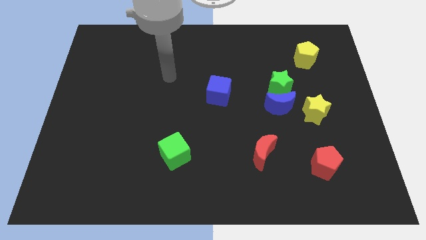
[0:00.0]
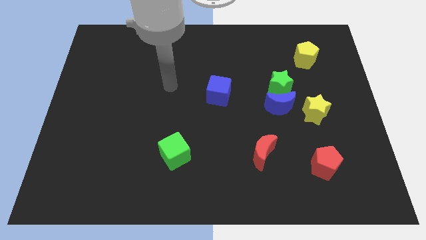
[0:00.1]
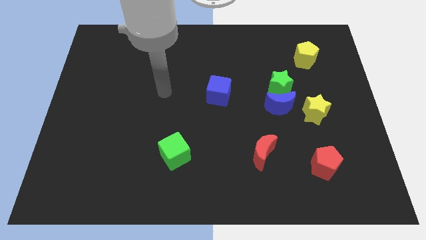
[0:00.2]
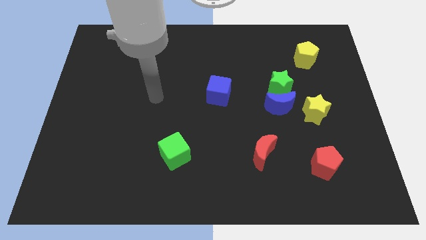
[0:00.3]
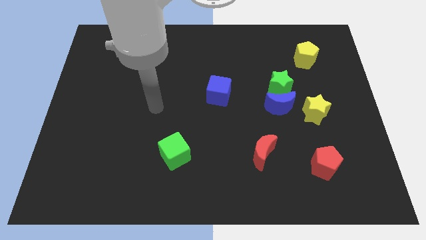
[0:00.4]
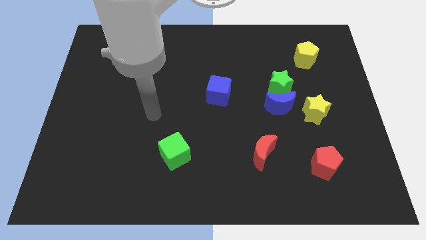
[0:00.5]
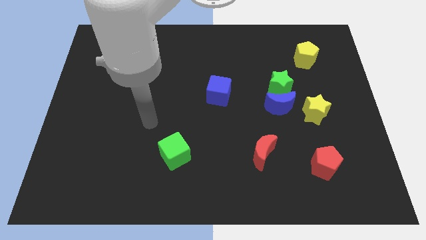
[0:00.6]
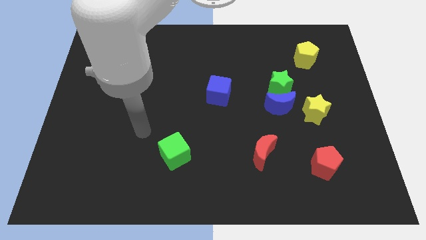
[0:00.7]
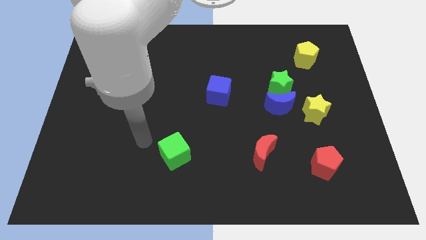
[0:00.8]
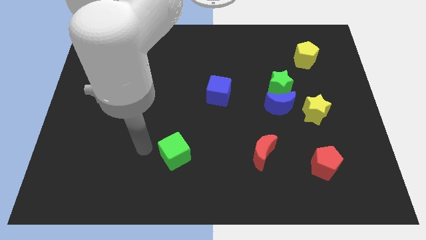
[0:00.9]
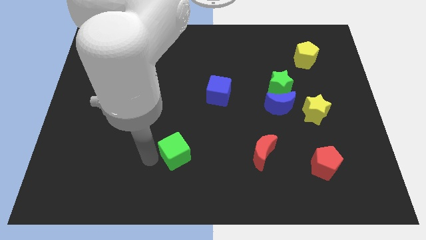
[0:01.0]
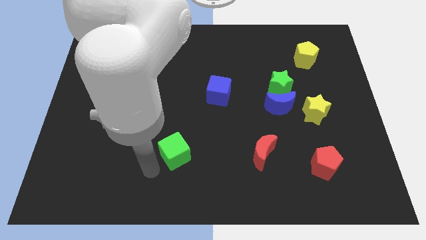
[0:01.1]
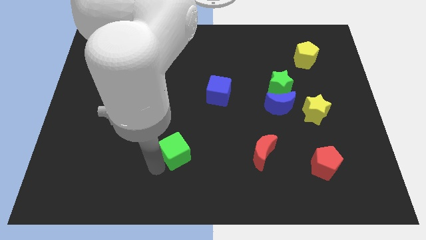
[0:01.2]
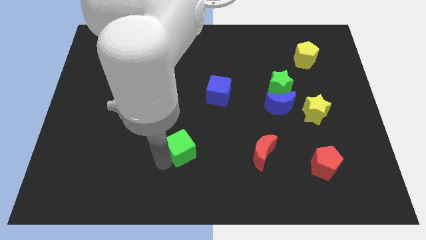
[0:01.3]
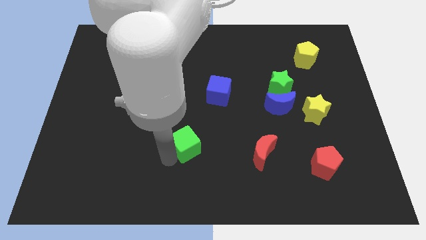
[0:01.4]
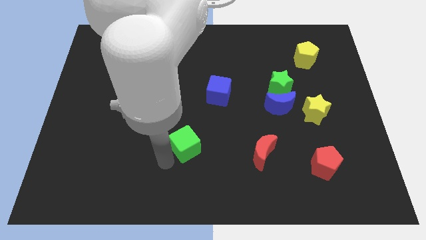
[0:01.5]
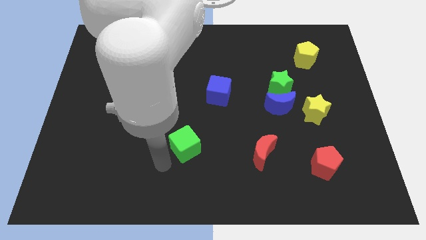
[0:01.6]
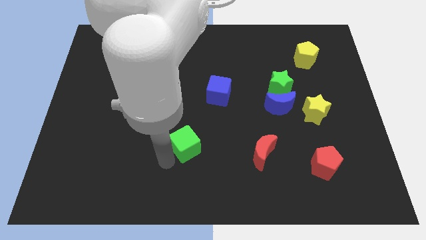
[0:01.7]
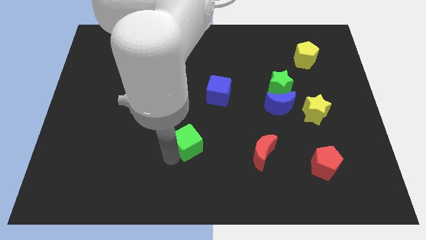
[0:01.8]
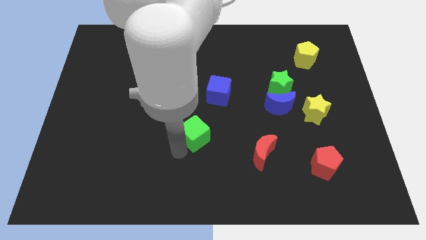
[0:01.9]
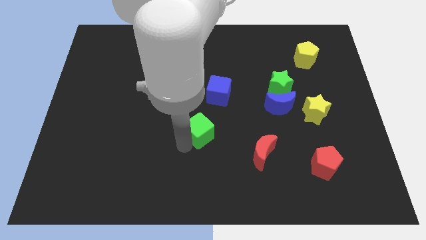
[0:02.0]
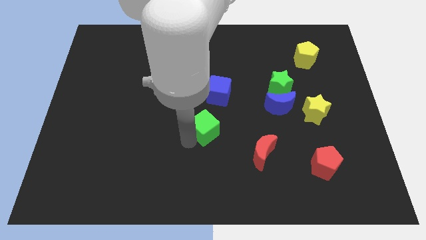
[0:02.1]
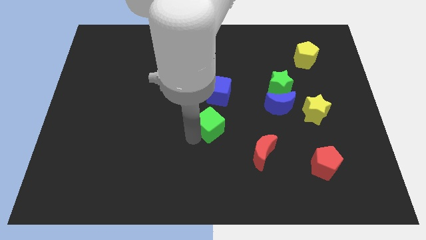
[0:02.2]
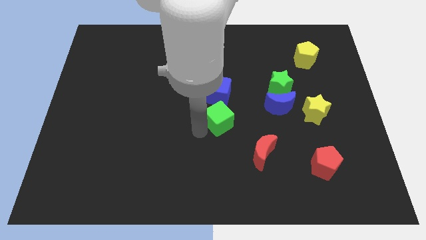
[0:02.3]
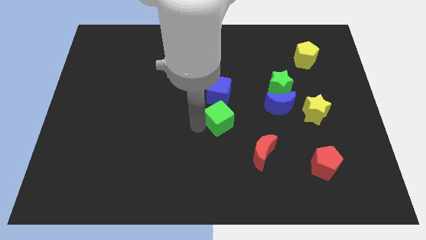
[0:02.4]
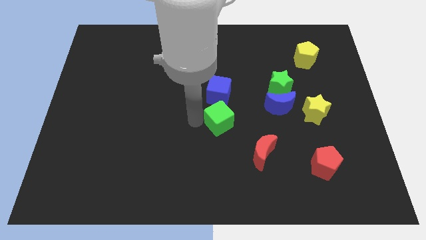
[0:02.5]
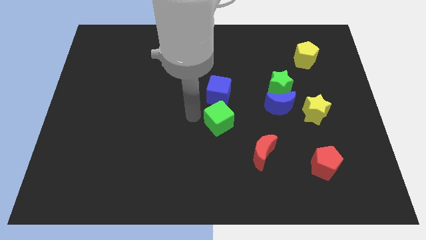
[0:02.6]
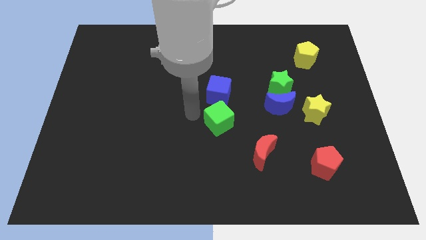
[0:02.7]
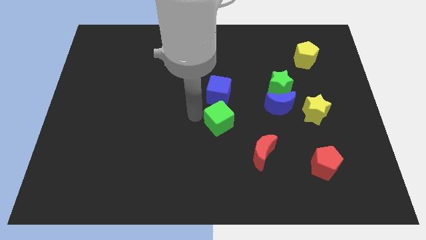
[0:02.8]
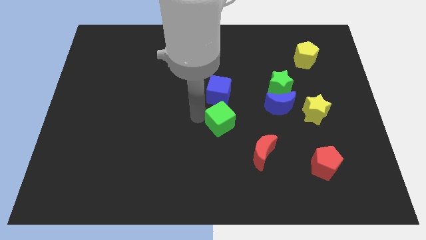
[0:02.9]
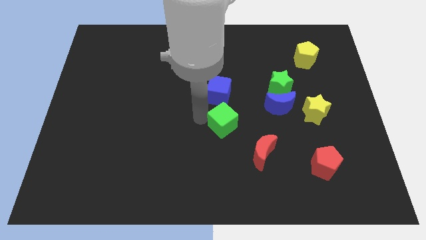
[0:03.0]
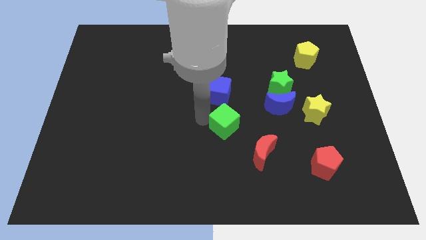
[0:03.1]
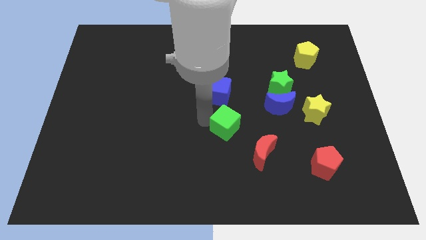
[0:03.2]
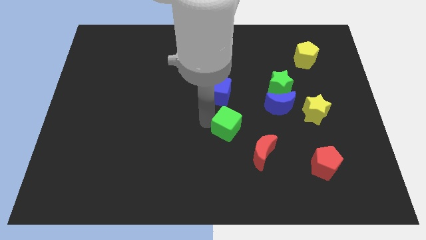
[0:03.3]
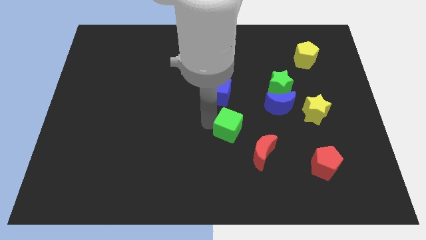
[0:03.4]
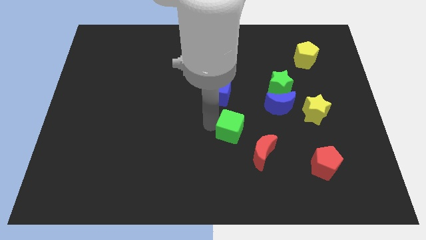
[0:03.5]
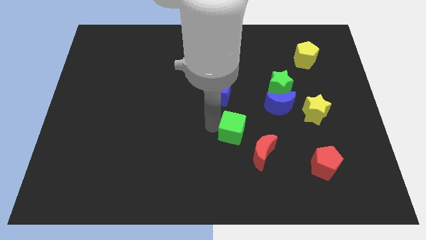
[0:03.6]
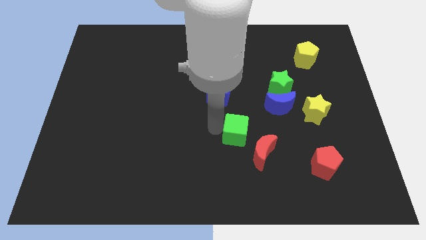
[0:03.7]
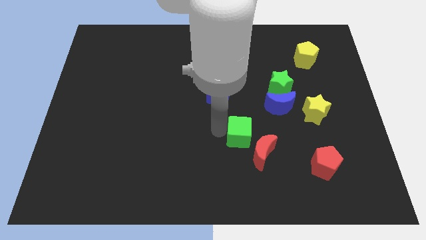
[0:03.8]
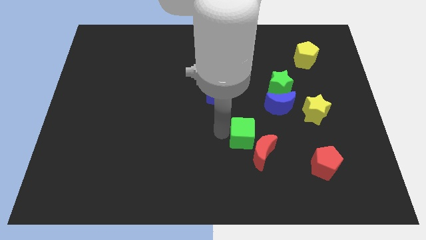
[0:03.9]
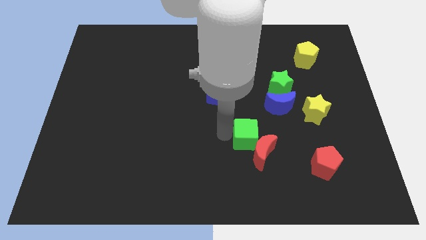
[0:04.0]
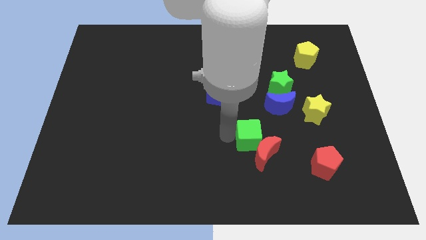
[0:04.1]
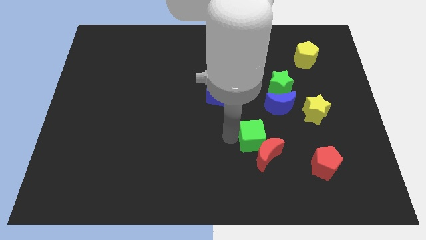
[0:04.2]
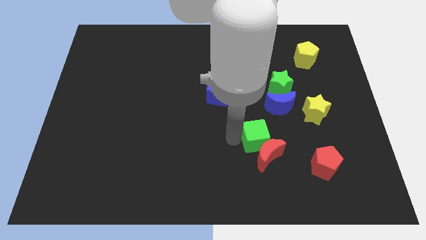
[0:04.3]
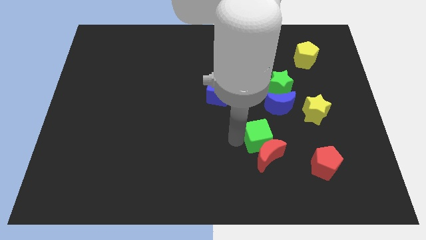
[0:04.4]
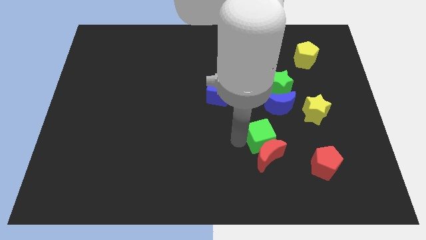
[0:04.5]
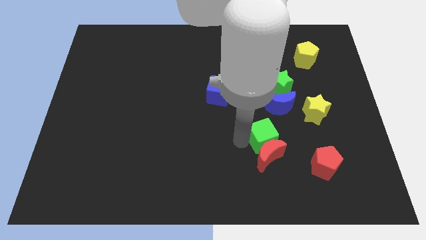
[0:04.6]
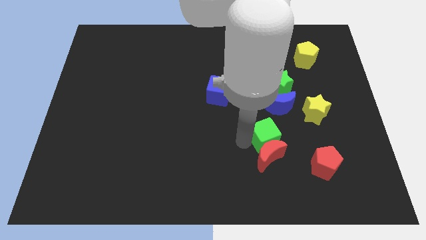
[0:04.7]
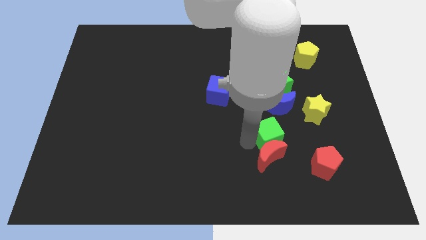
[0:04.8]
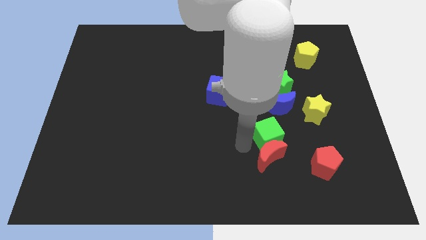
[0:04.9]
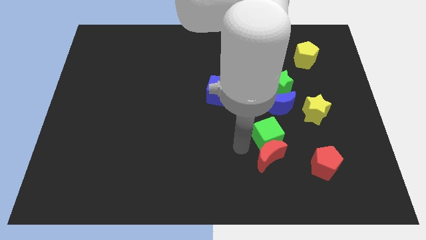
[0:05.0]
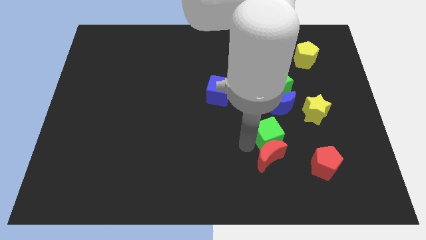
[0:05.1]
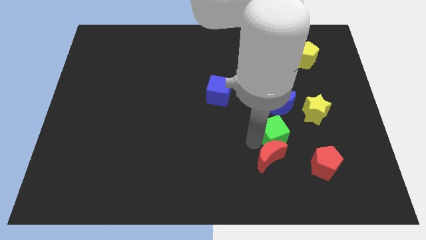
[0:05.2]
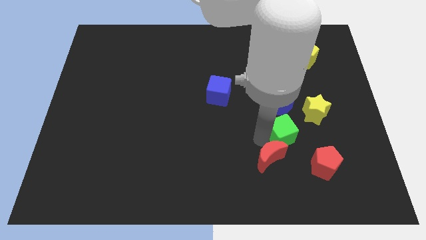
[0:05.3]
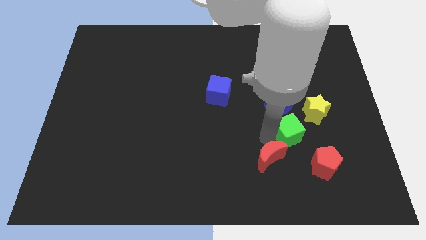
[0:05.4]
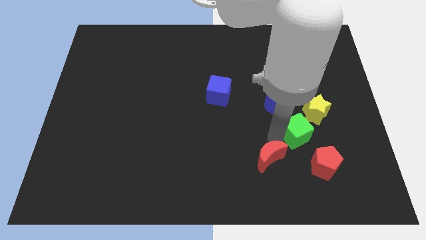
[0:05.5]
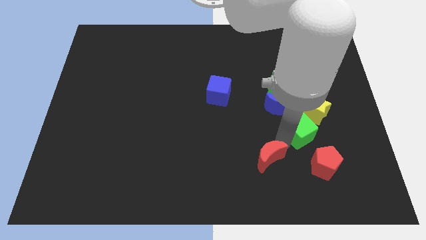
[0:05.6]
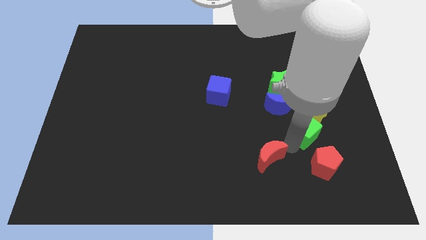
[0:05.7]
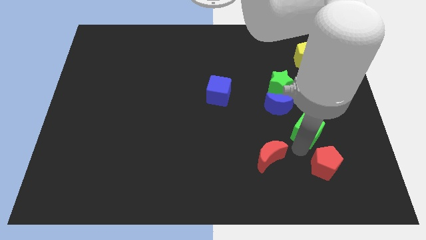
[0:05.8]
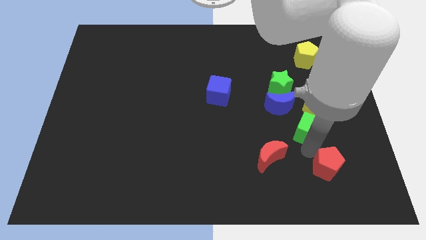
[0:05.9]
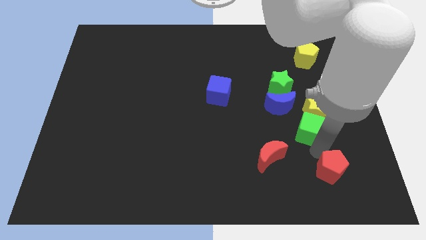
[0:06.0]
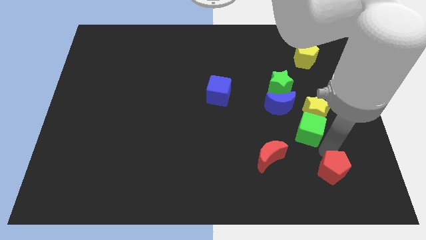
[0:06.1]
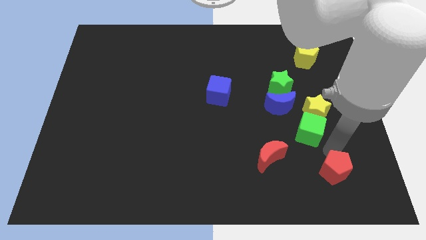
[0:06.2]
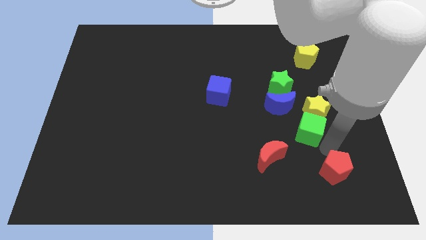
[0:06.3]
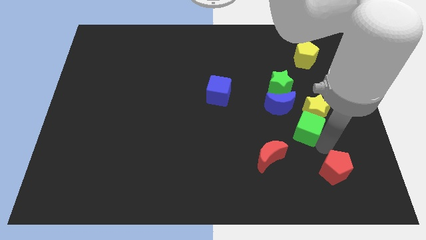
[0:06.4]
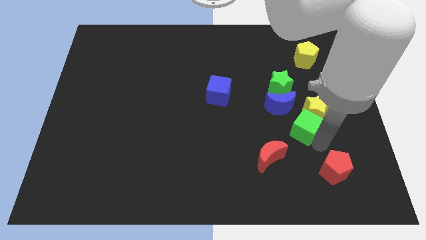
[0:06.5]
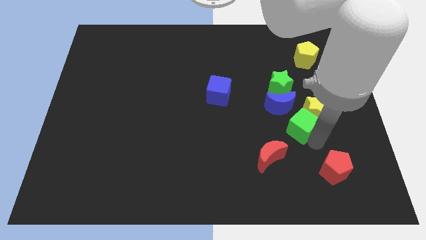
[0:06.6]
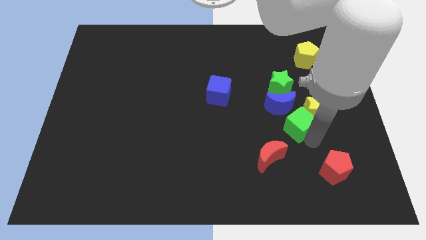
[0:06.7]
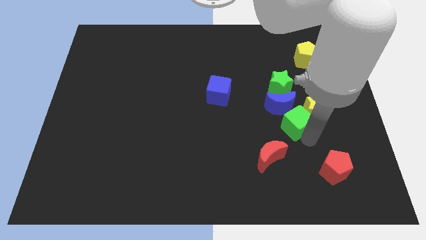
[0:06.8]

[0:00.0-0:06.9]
put the green cube close to the blue moon

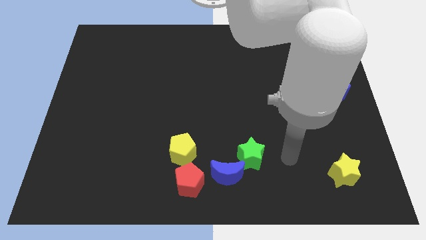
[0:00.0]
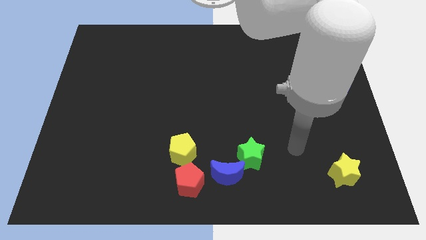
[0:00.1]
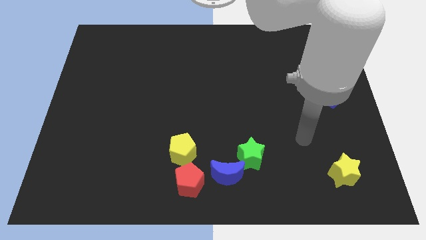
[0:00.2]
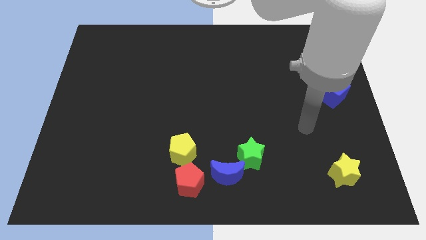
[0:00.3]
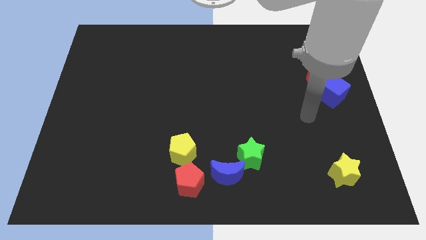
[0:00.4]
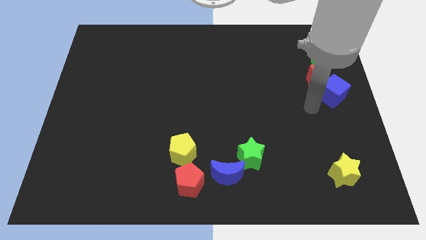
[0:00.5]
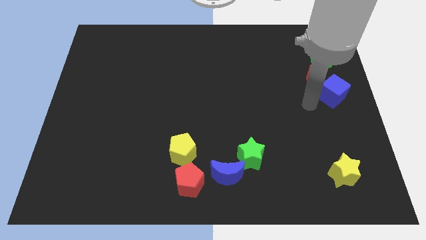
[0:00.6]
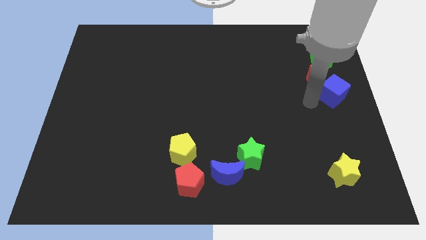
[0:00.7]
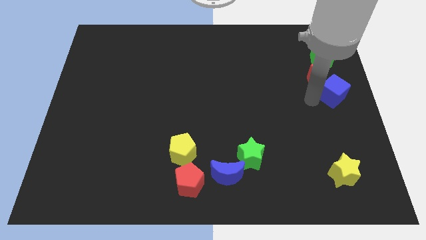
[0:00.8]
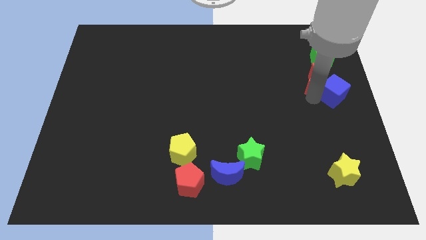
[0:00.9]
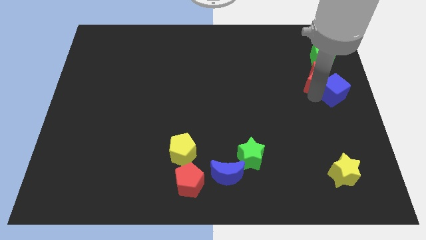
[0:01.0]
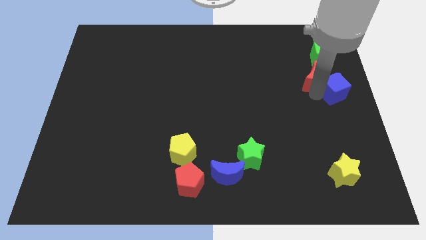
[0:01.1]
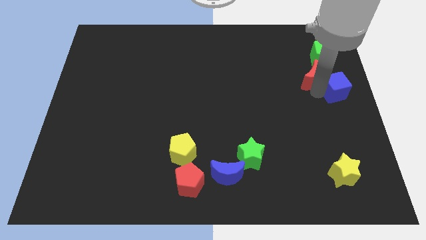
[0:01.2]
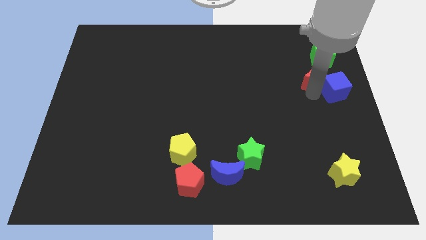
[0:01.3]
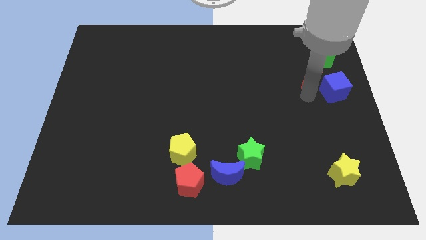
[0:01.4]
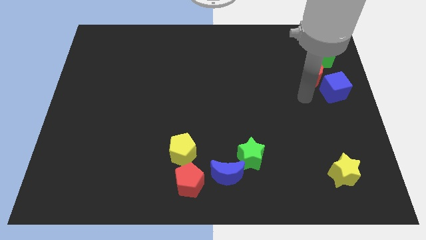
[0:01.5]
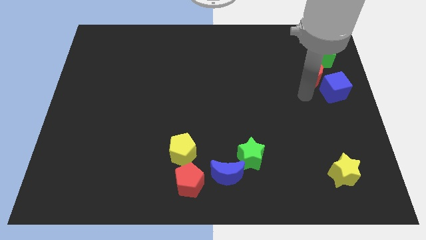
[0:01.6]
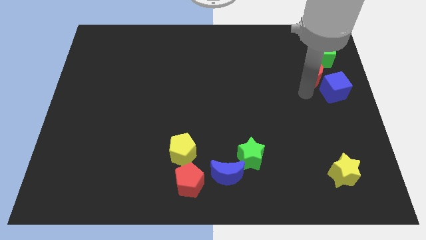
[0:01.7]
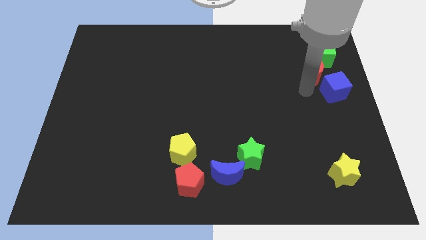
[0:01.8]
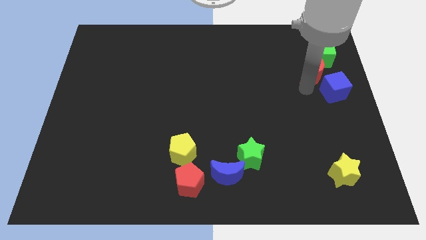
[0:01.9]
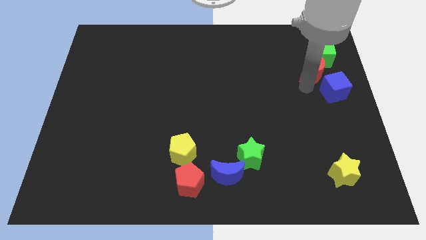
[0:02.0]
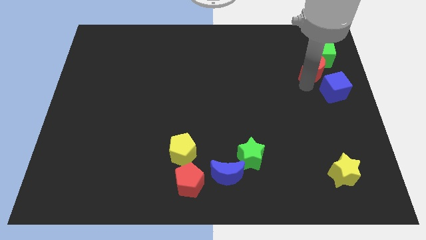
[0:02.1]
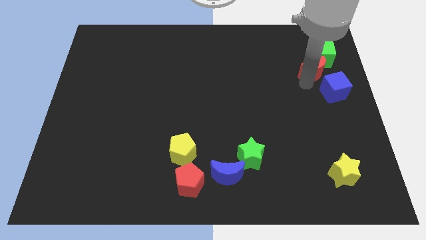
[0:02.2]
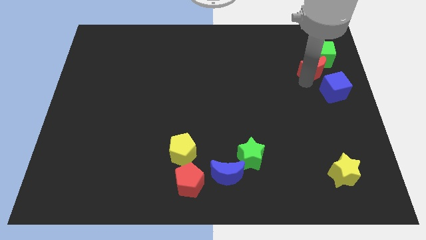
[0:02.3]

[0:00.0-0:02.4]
put the red moon close to the green cube
